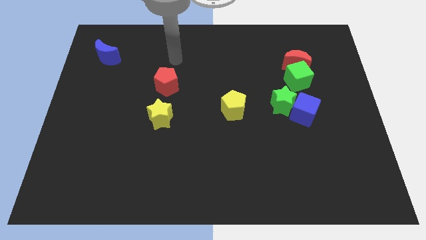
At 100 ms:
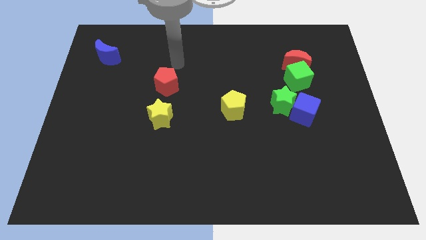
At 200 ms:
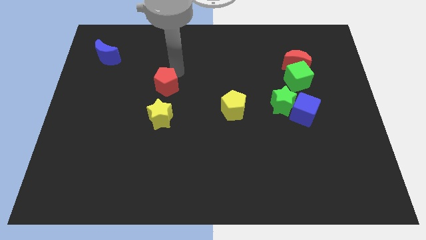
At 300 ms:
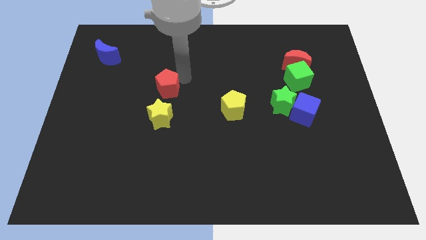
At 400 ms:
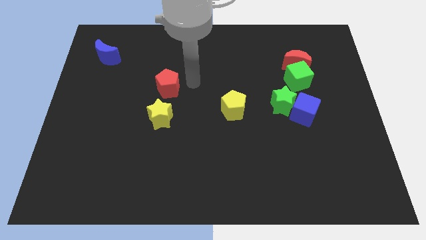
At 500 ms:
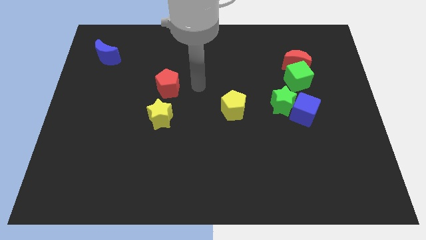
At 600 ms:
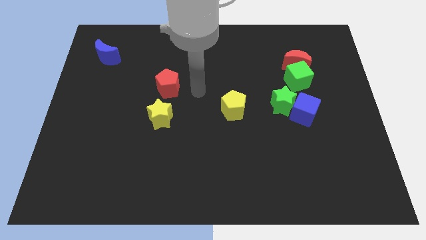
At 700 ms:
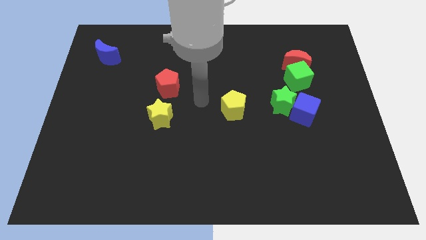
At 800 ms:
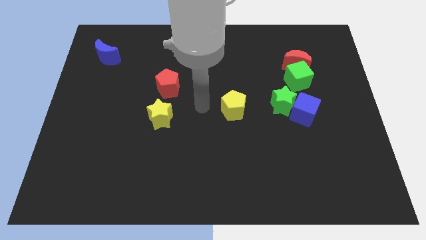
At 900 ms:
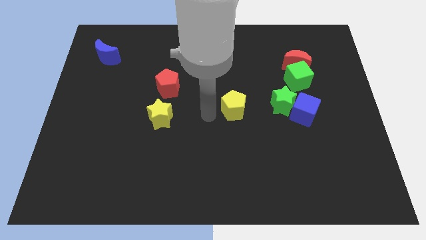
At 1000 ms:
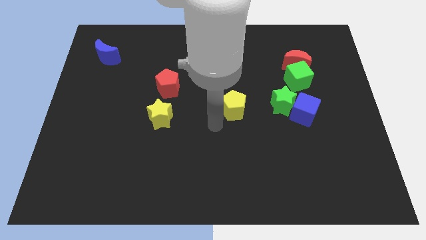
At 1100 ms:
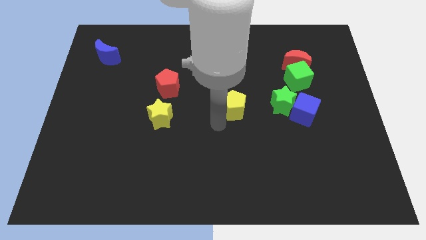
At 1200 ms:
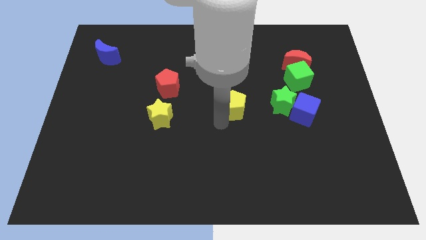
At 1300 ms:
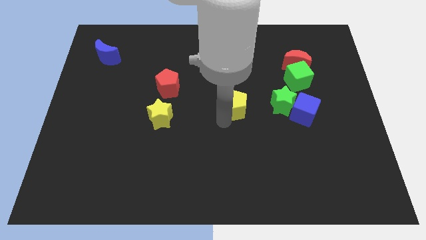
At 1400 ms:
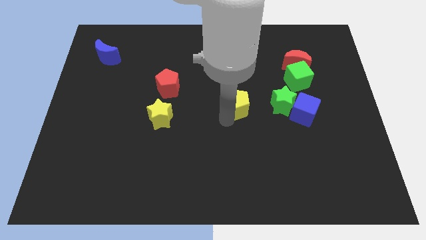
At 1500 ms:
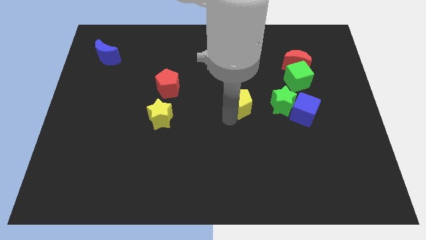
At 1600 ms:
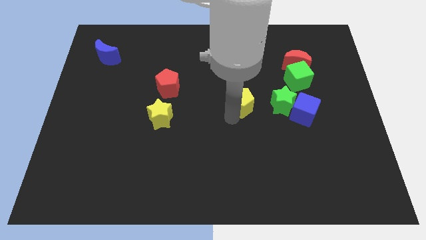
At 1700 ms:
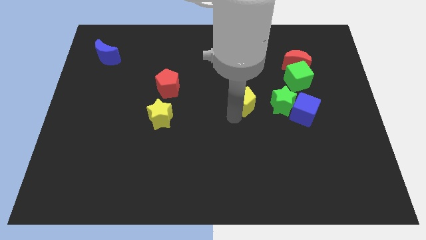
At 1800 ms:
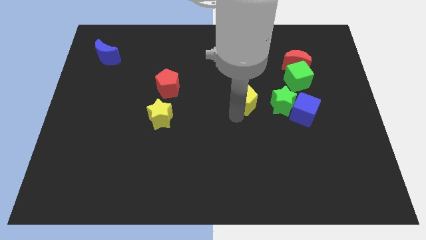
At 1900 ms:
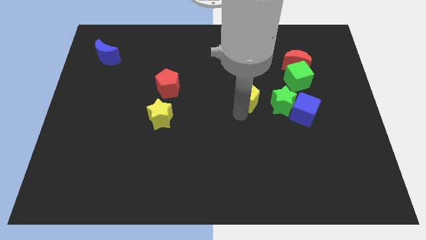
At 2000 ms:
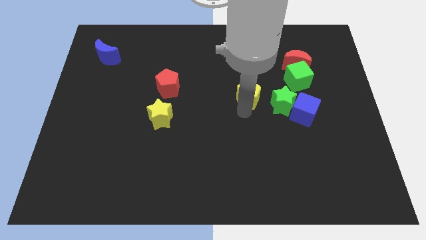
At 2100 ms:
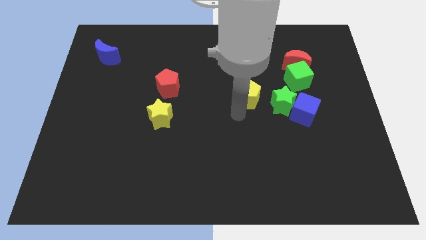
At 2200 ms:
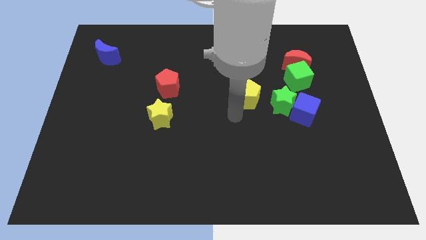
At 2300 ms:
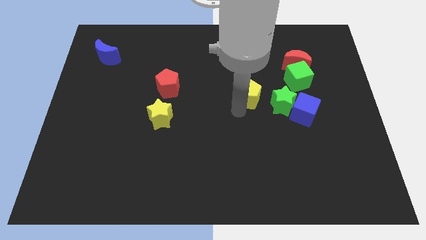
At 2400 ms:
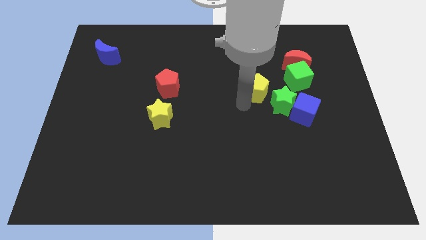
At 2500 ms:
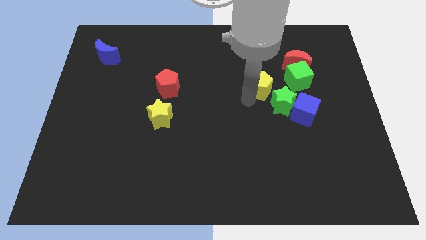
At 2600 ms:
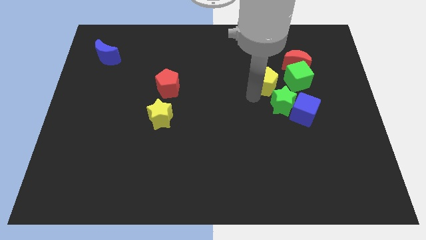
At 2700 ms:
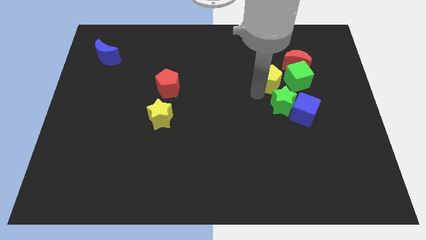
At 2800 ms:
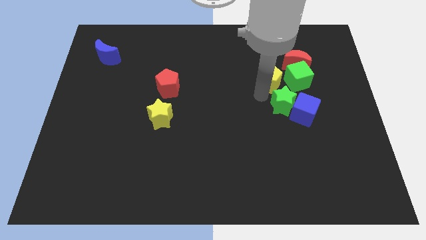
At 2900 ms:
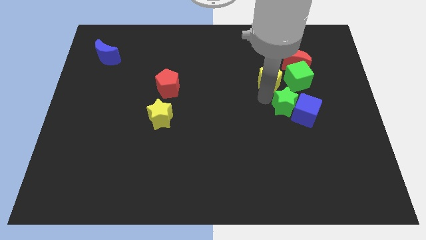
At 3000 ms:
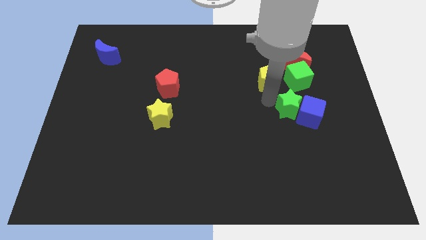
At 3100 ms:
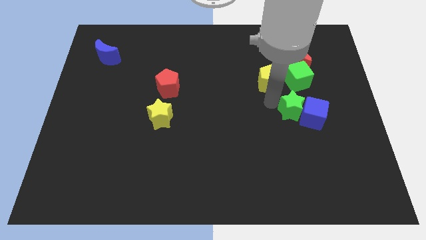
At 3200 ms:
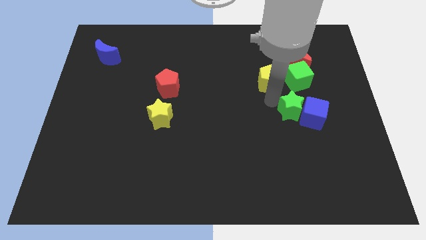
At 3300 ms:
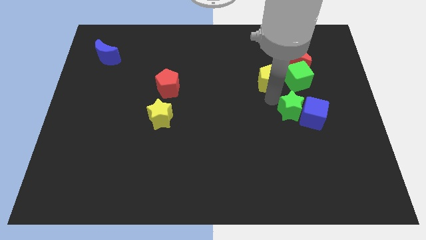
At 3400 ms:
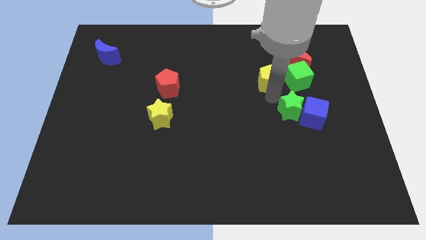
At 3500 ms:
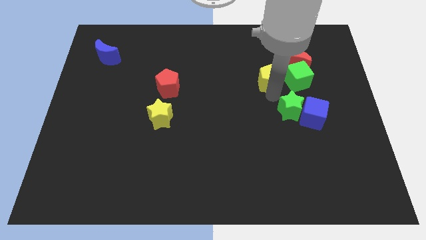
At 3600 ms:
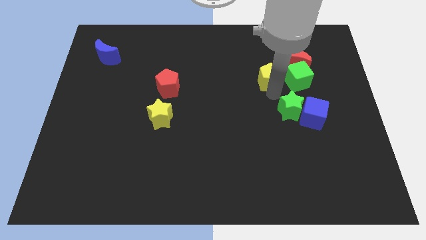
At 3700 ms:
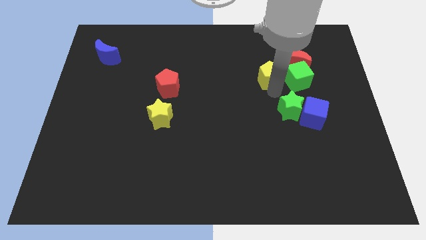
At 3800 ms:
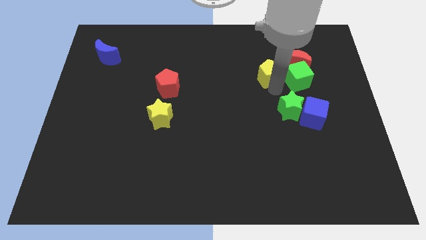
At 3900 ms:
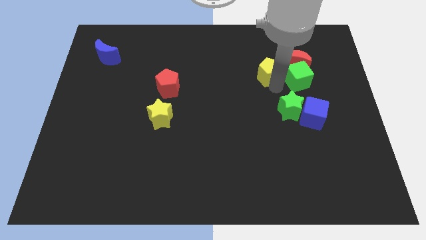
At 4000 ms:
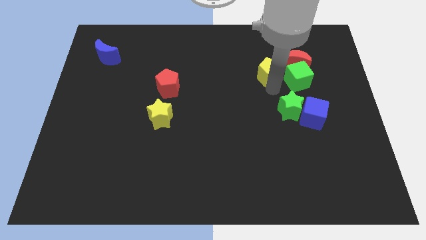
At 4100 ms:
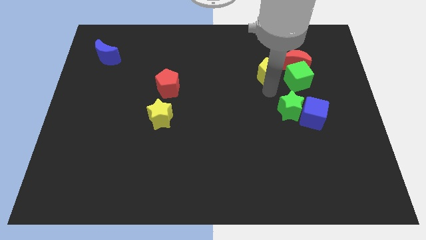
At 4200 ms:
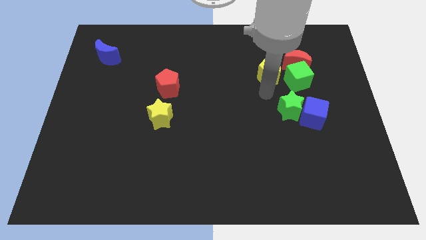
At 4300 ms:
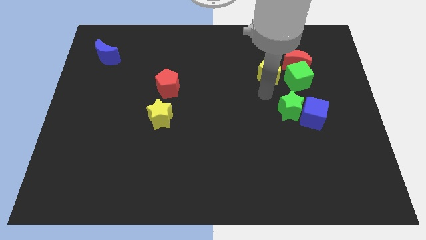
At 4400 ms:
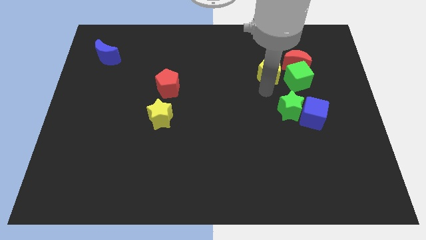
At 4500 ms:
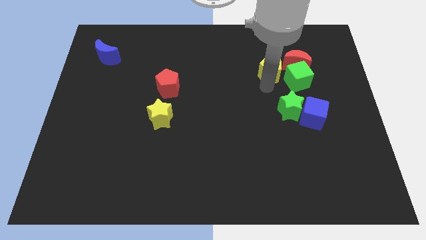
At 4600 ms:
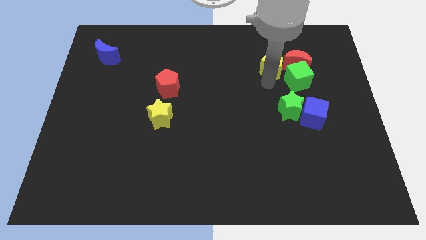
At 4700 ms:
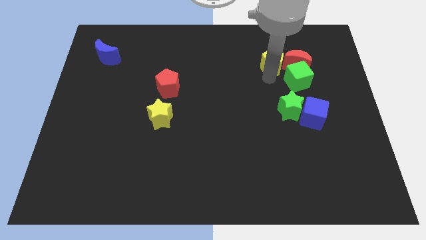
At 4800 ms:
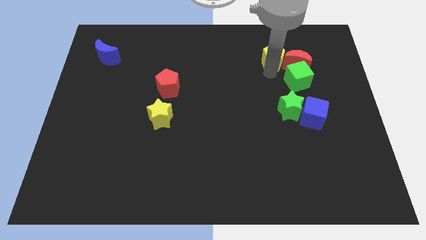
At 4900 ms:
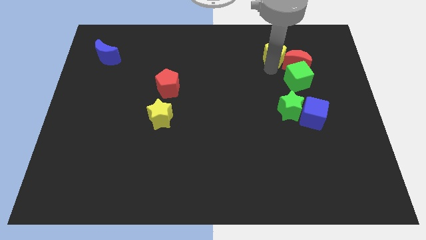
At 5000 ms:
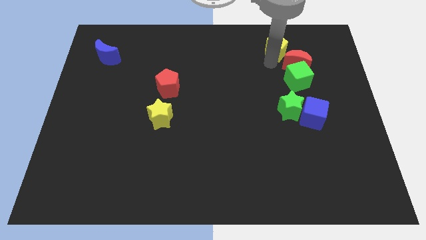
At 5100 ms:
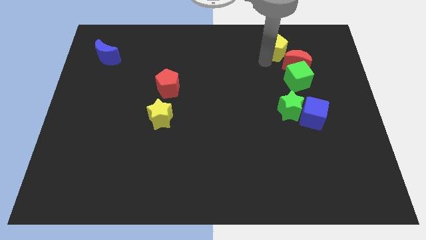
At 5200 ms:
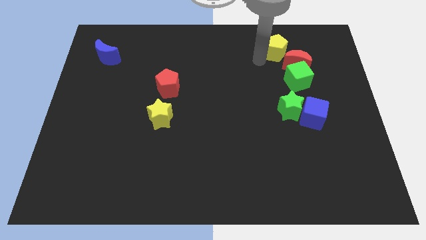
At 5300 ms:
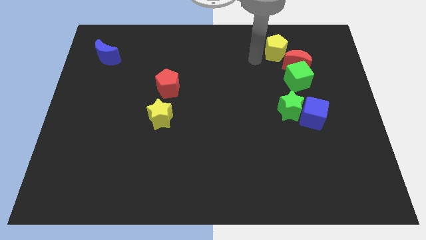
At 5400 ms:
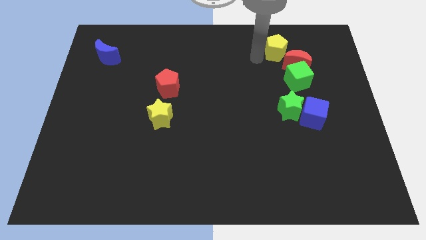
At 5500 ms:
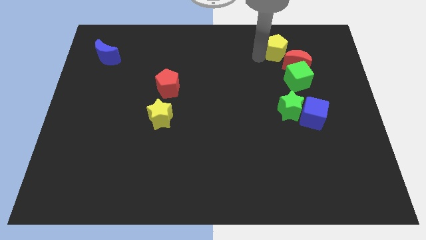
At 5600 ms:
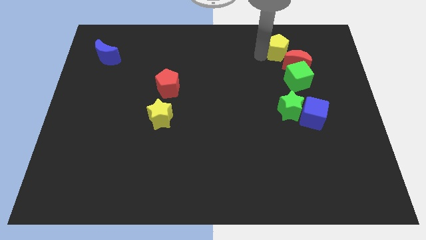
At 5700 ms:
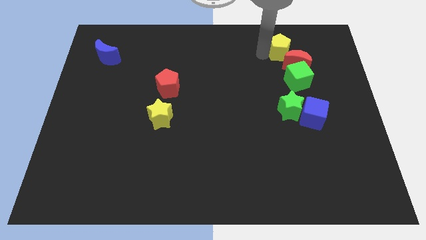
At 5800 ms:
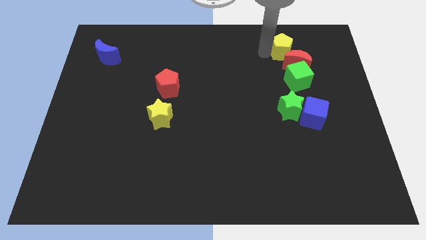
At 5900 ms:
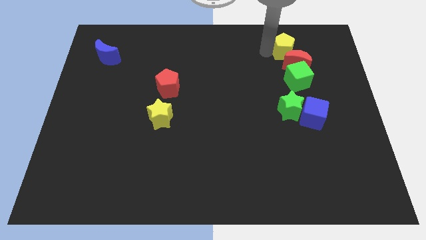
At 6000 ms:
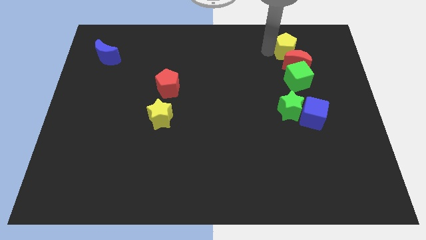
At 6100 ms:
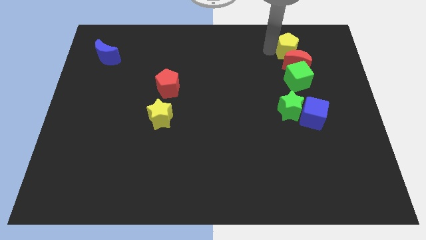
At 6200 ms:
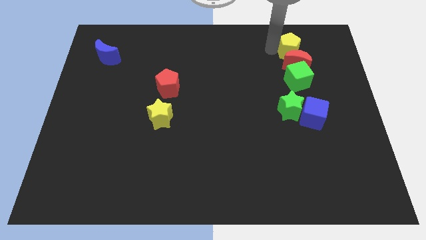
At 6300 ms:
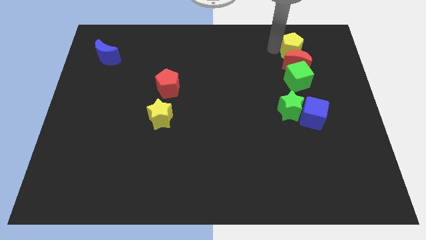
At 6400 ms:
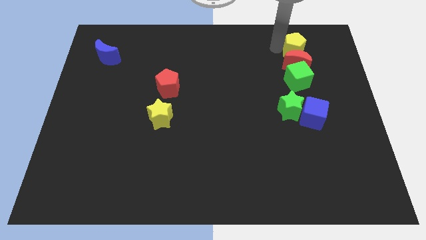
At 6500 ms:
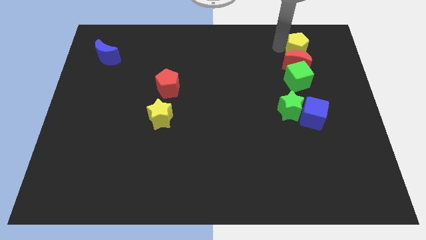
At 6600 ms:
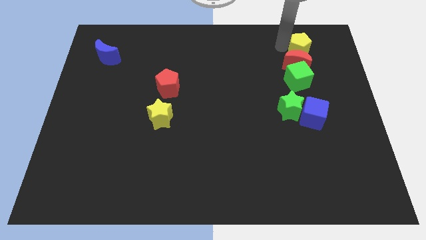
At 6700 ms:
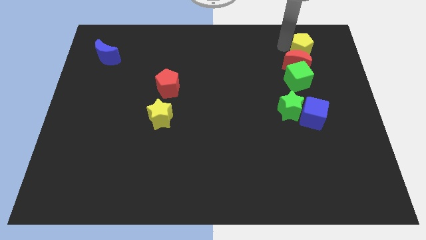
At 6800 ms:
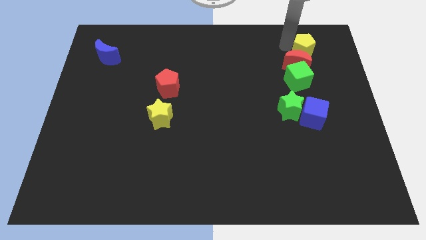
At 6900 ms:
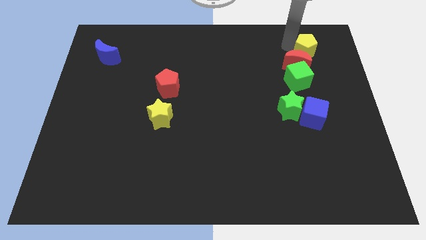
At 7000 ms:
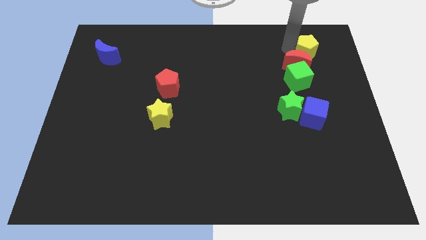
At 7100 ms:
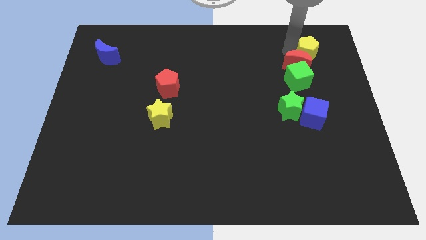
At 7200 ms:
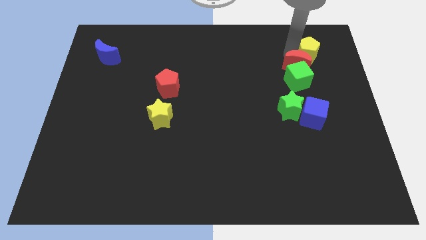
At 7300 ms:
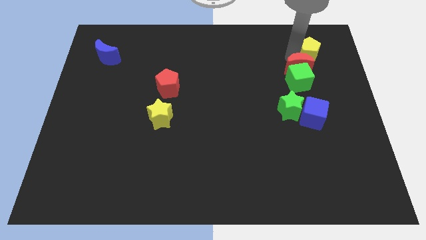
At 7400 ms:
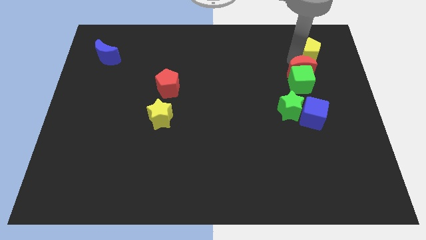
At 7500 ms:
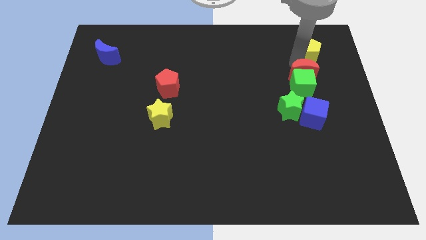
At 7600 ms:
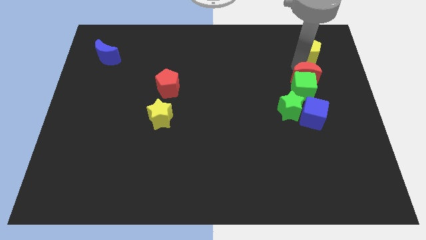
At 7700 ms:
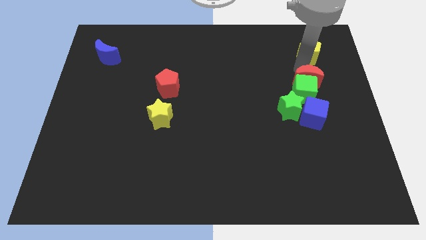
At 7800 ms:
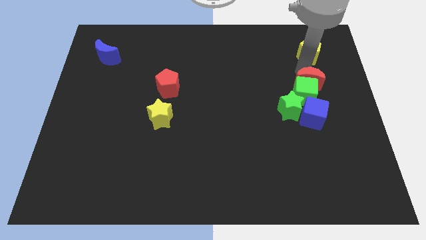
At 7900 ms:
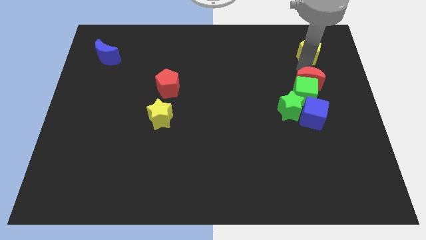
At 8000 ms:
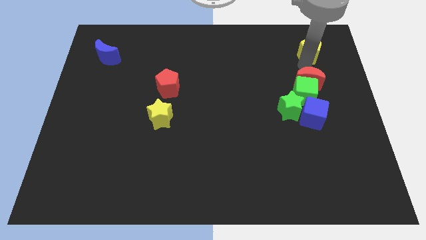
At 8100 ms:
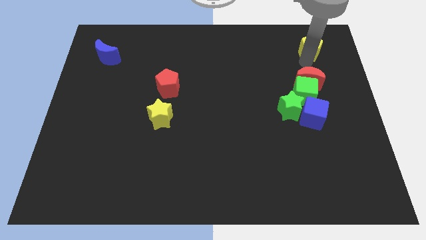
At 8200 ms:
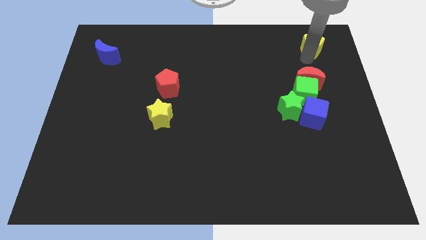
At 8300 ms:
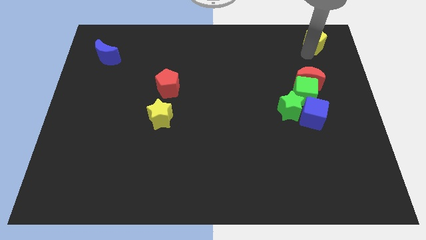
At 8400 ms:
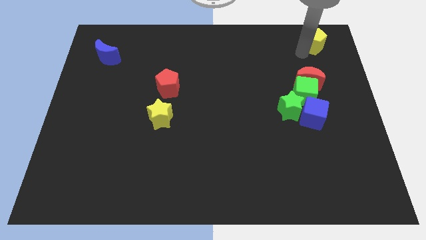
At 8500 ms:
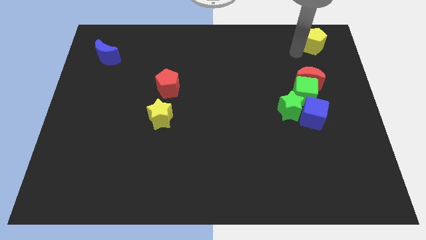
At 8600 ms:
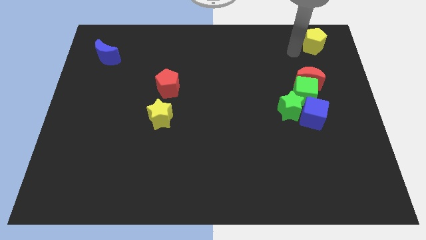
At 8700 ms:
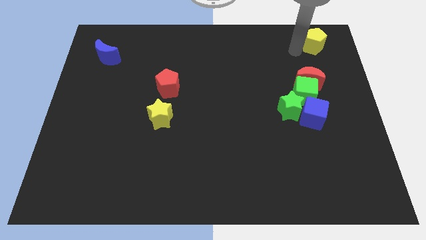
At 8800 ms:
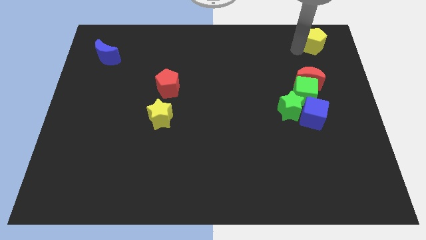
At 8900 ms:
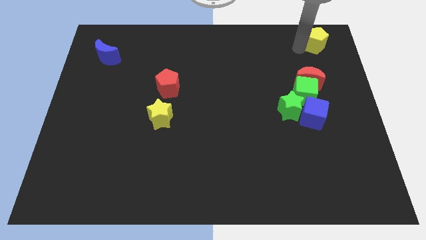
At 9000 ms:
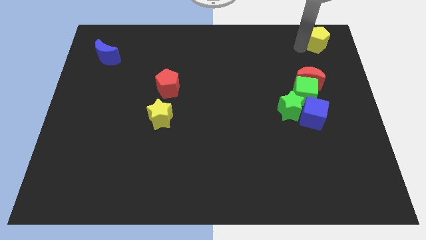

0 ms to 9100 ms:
push the yellow pentagon to the top right
